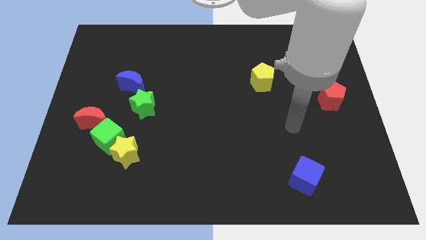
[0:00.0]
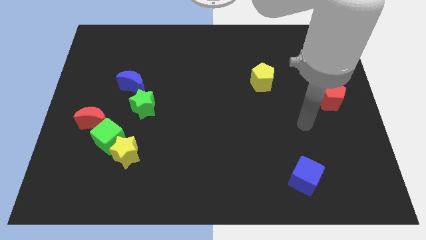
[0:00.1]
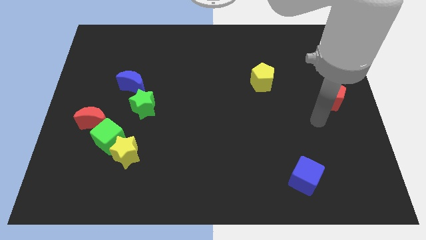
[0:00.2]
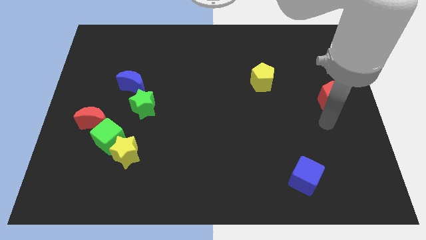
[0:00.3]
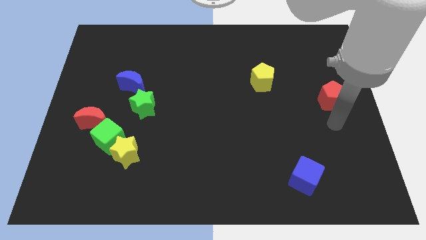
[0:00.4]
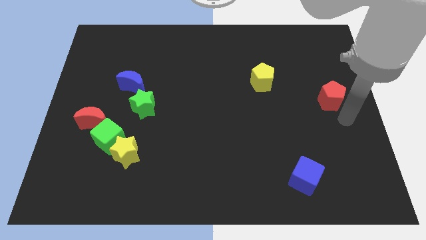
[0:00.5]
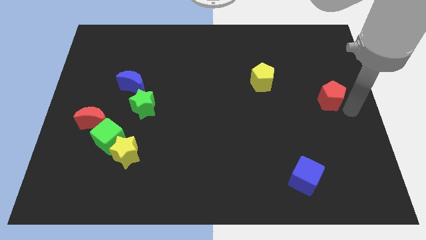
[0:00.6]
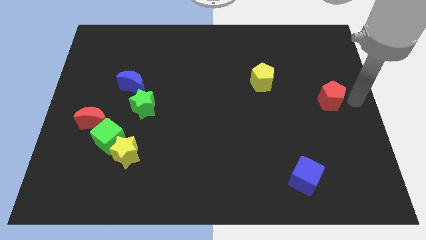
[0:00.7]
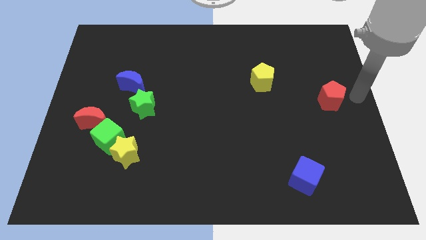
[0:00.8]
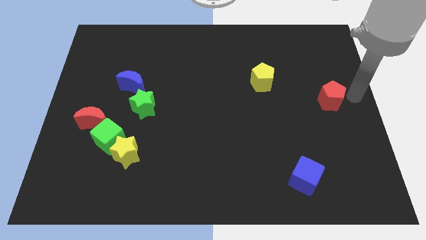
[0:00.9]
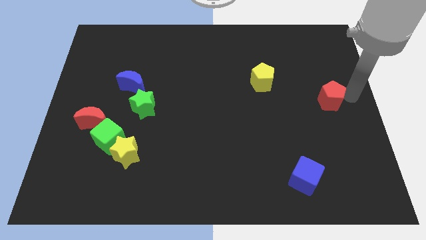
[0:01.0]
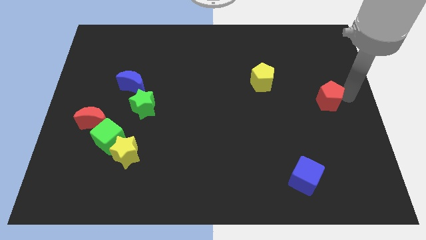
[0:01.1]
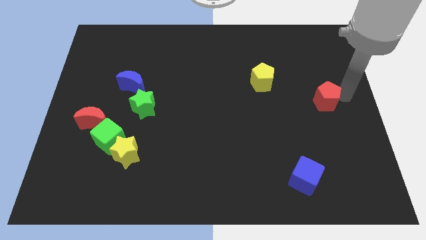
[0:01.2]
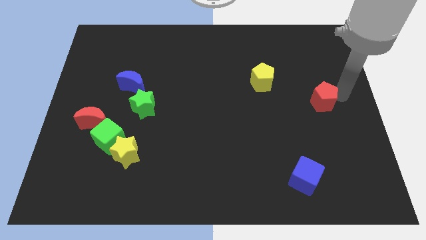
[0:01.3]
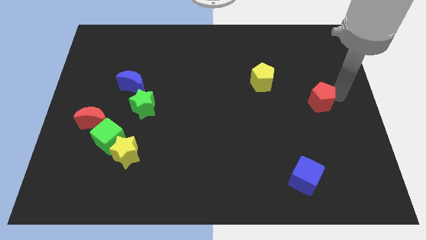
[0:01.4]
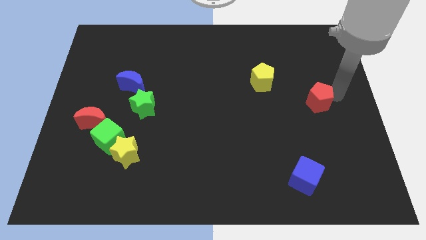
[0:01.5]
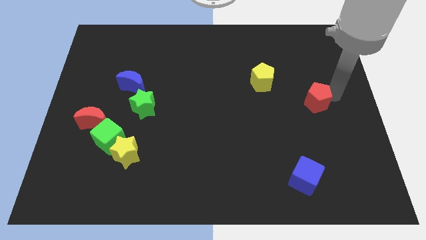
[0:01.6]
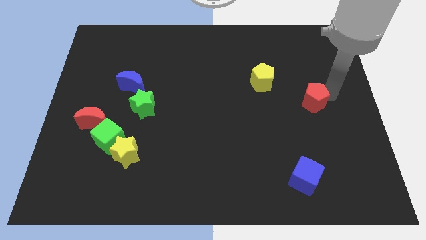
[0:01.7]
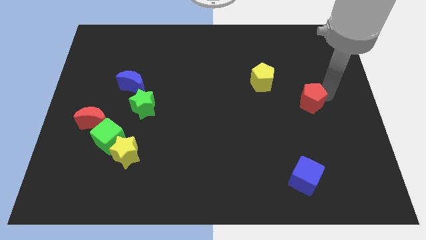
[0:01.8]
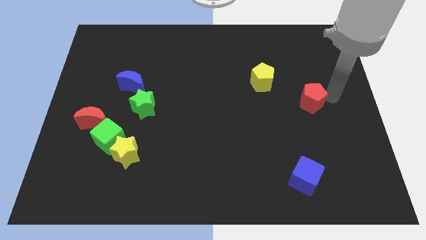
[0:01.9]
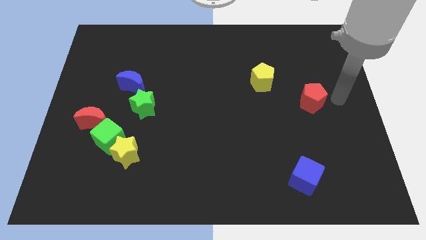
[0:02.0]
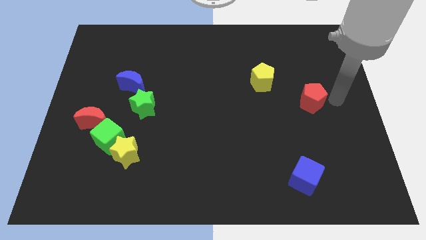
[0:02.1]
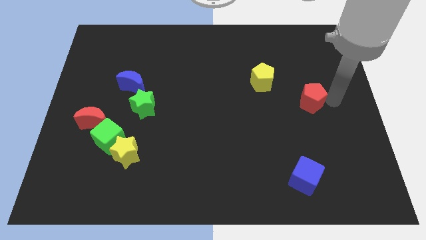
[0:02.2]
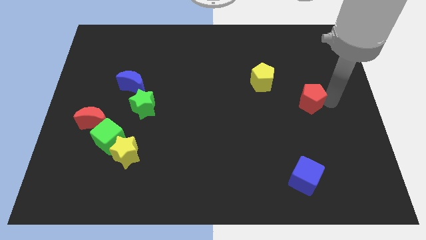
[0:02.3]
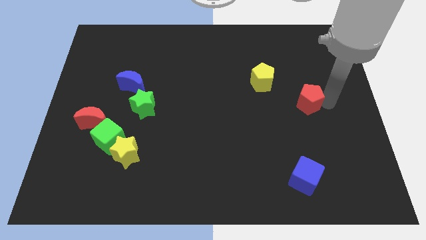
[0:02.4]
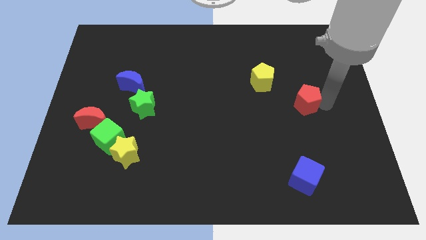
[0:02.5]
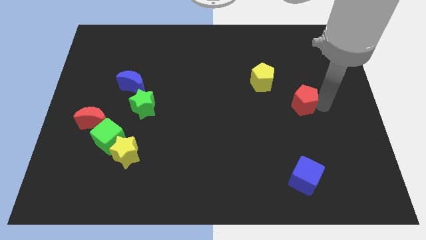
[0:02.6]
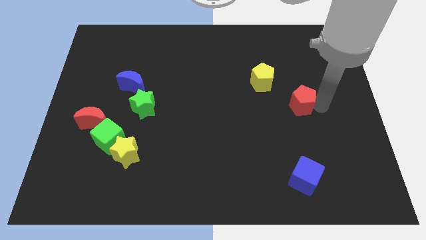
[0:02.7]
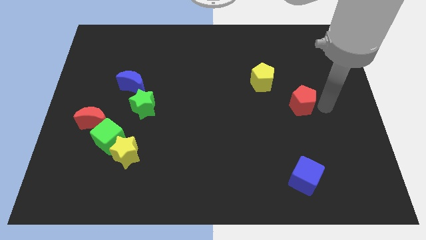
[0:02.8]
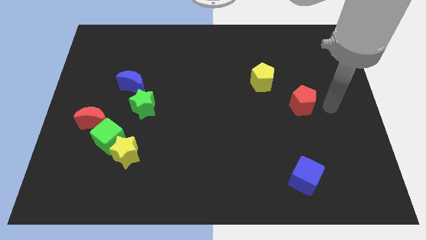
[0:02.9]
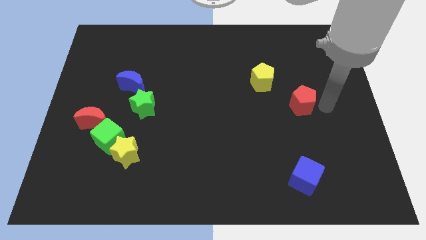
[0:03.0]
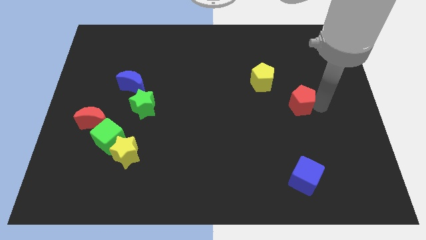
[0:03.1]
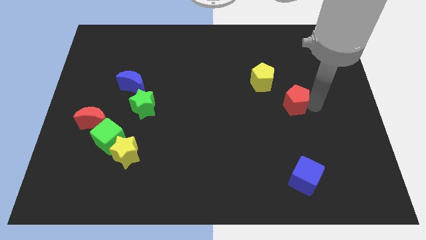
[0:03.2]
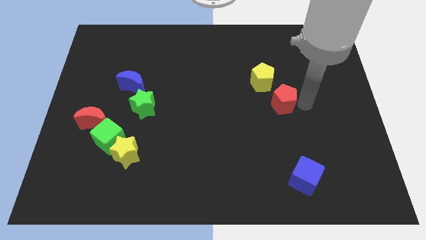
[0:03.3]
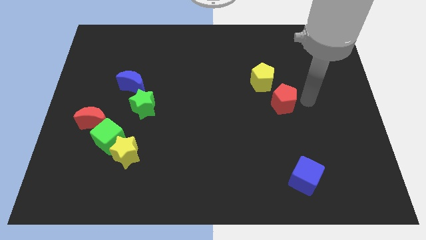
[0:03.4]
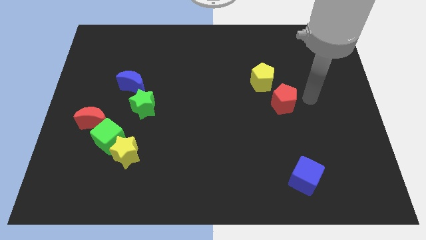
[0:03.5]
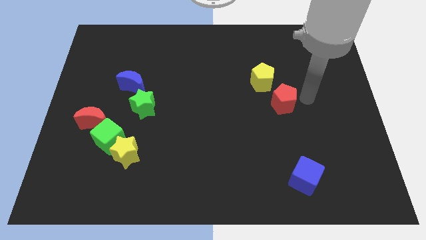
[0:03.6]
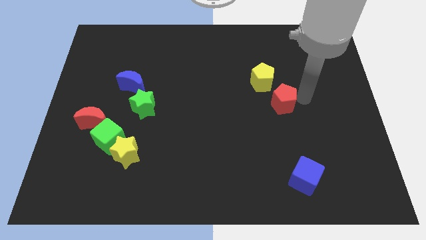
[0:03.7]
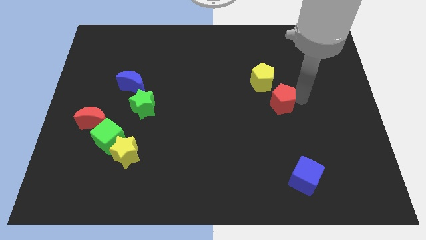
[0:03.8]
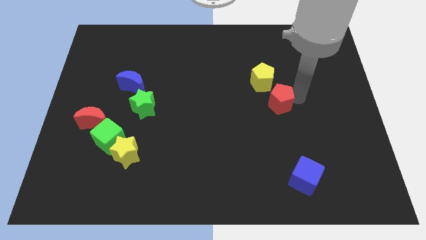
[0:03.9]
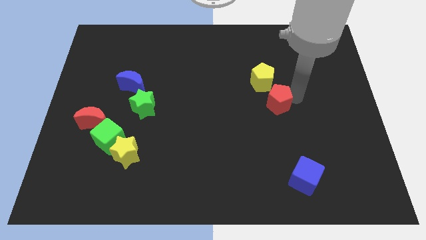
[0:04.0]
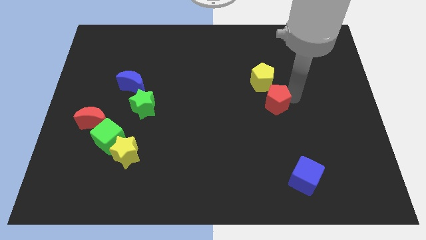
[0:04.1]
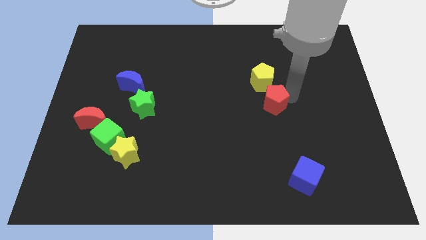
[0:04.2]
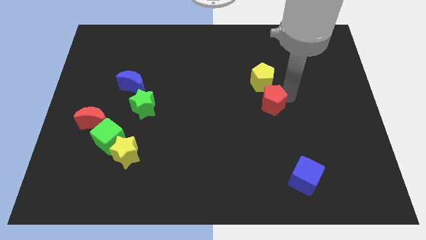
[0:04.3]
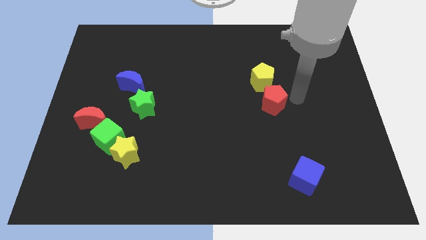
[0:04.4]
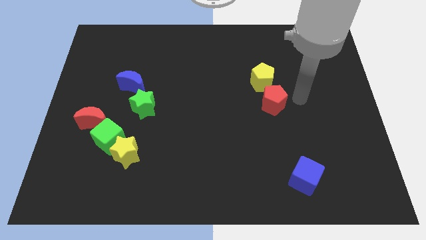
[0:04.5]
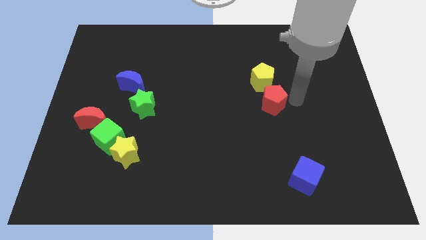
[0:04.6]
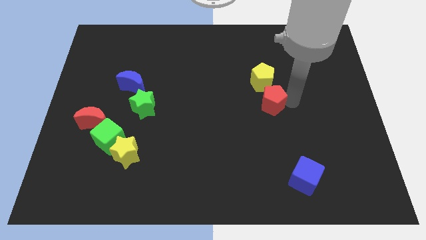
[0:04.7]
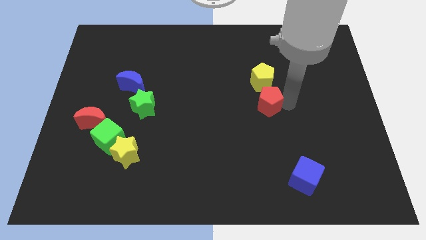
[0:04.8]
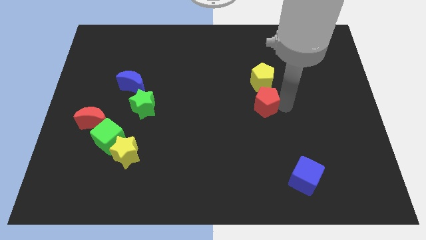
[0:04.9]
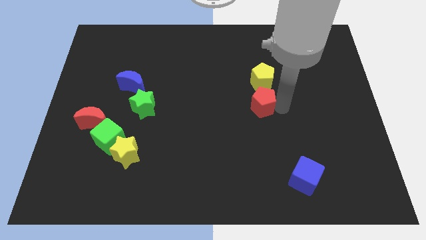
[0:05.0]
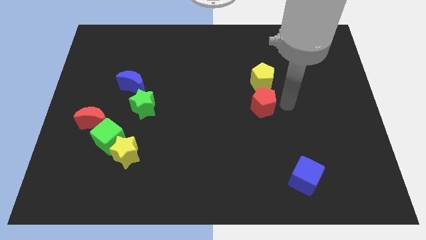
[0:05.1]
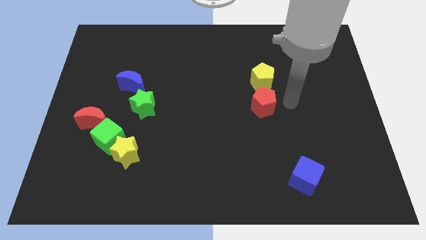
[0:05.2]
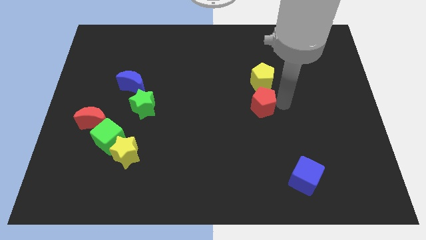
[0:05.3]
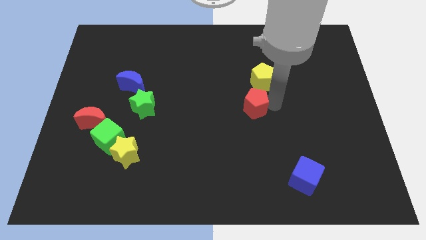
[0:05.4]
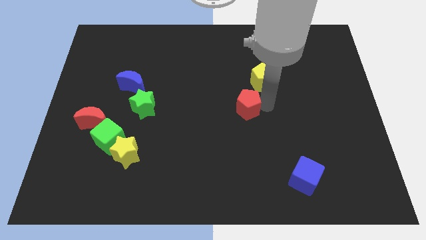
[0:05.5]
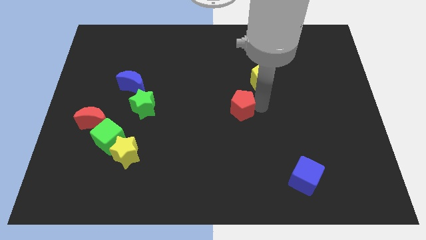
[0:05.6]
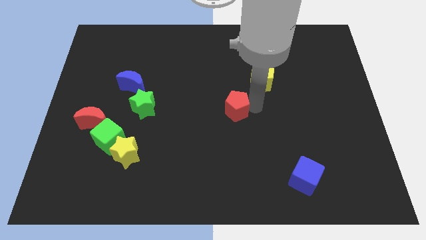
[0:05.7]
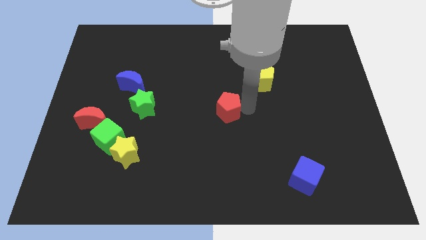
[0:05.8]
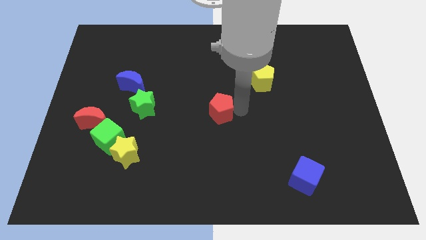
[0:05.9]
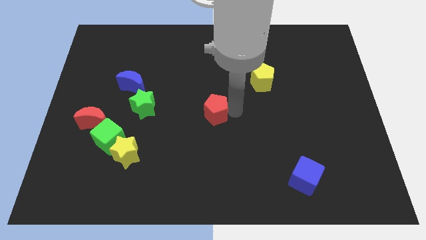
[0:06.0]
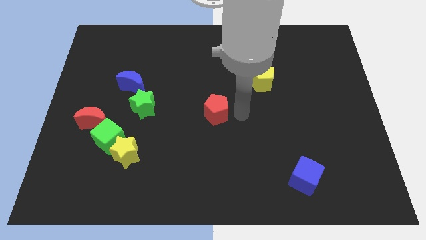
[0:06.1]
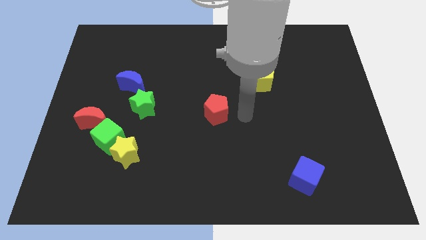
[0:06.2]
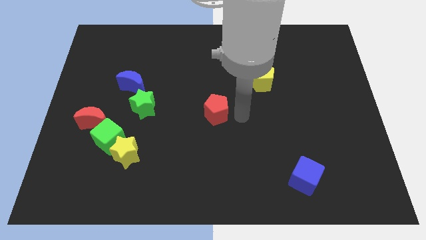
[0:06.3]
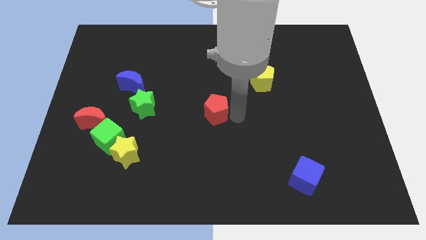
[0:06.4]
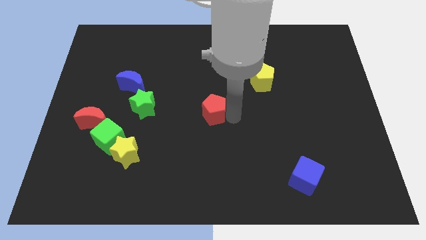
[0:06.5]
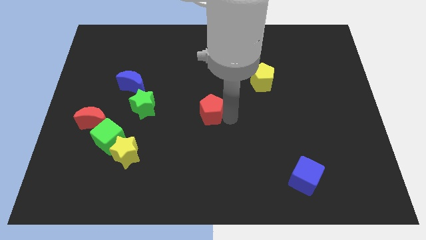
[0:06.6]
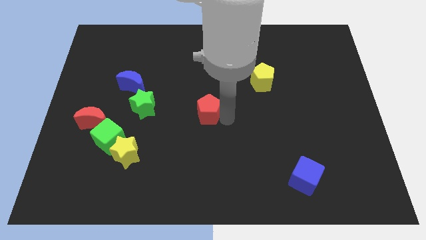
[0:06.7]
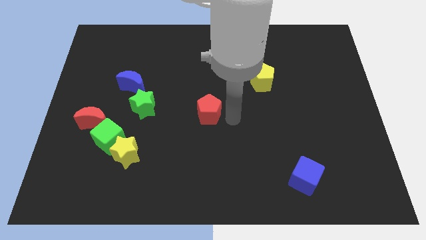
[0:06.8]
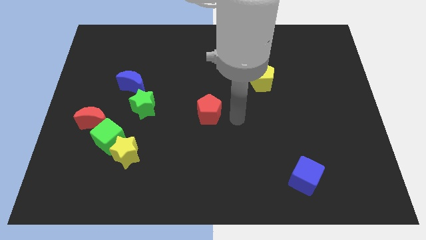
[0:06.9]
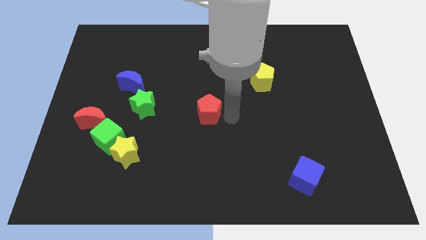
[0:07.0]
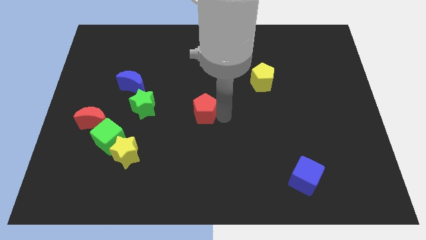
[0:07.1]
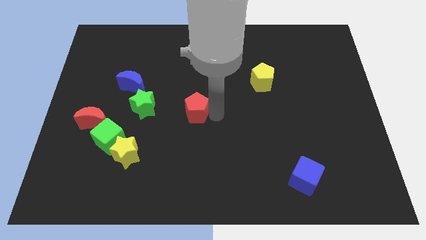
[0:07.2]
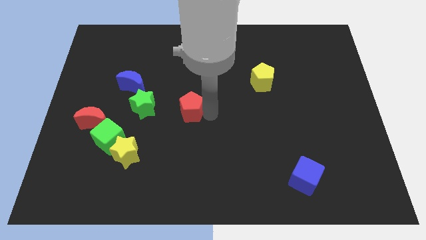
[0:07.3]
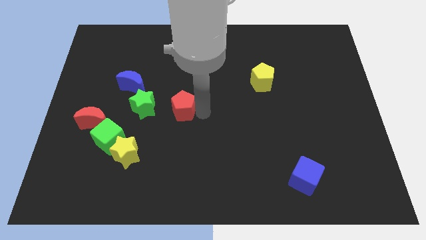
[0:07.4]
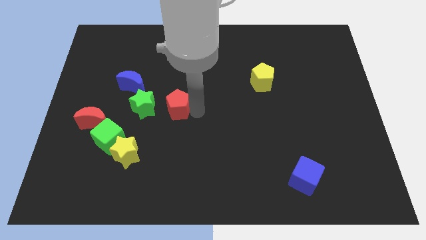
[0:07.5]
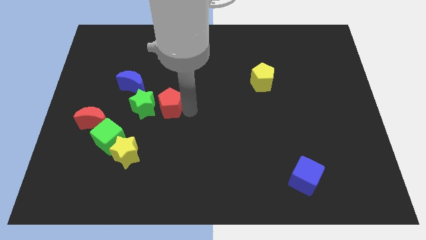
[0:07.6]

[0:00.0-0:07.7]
put the red pentagon to the bottom right side of the blue moon
